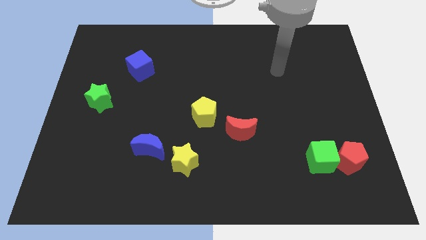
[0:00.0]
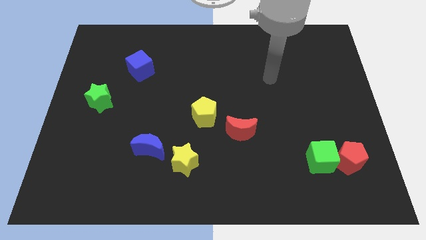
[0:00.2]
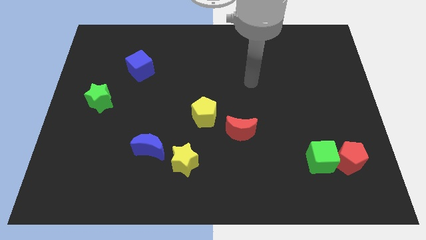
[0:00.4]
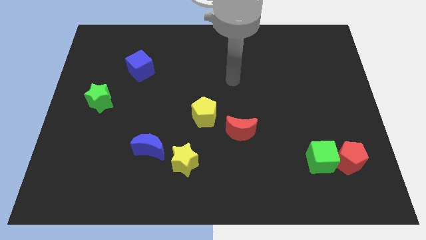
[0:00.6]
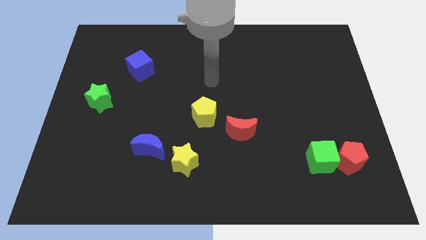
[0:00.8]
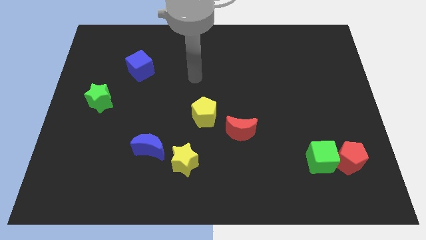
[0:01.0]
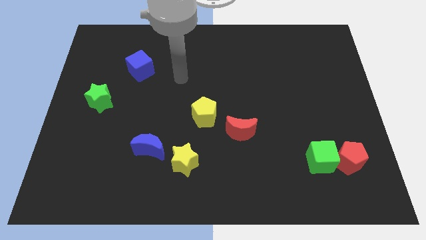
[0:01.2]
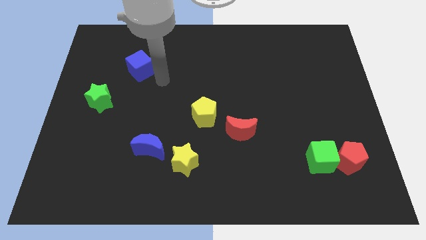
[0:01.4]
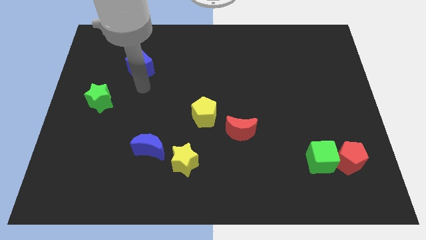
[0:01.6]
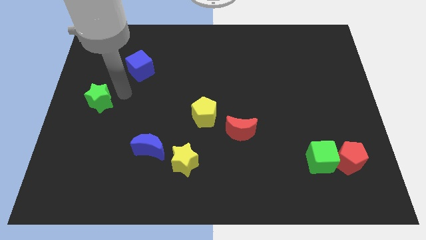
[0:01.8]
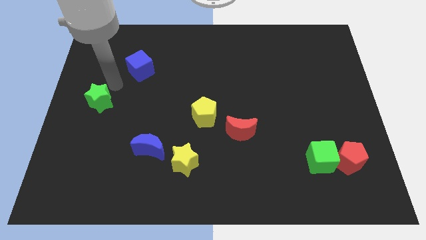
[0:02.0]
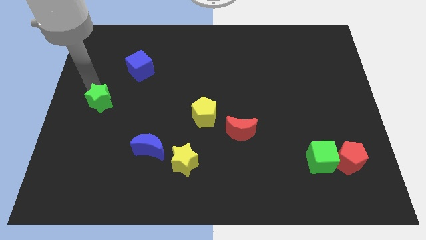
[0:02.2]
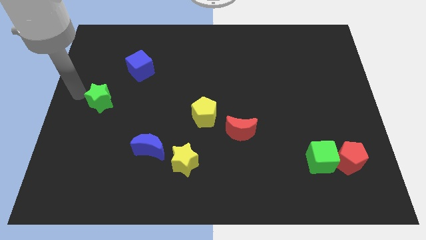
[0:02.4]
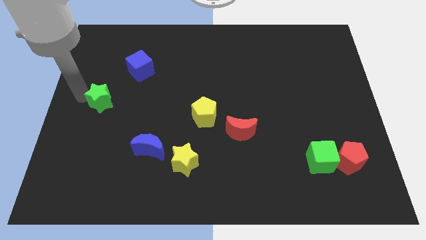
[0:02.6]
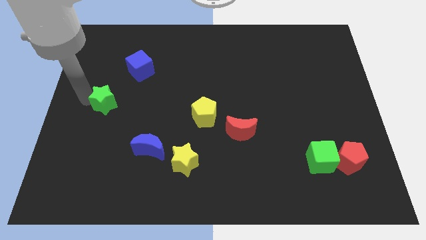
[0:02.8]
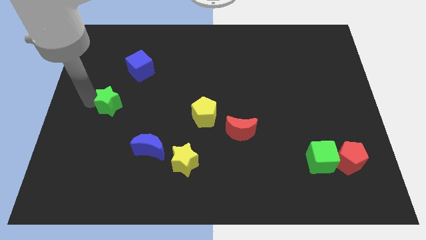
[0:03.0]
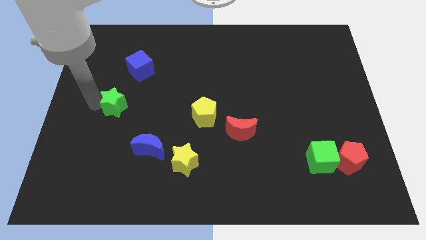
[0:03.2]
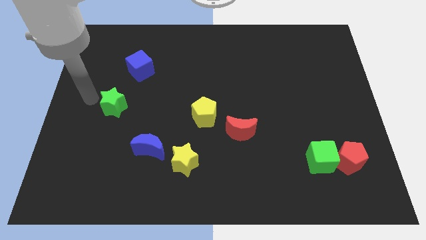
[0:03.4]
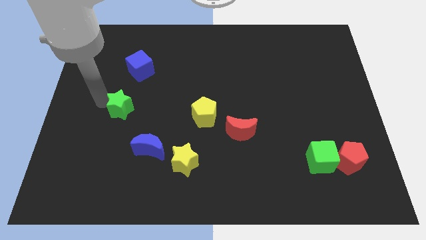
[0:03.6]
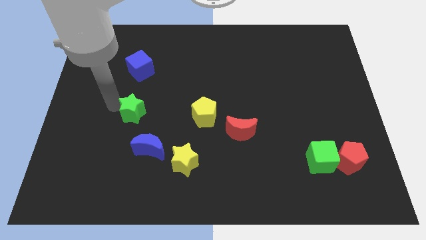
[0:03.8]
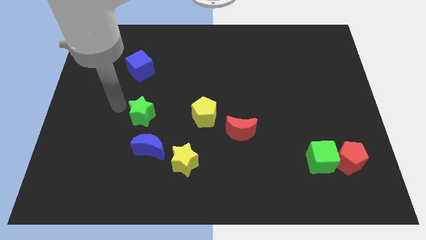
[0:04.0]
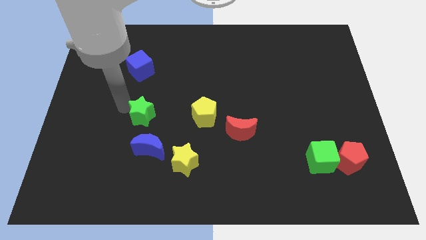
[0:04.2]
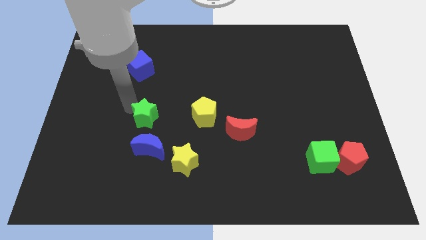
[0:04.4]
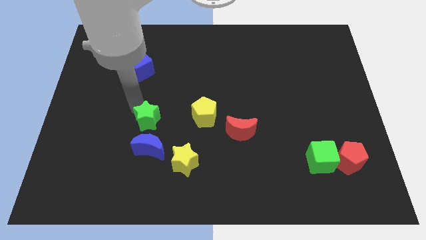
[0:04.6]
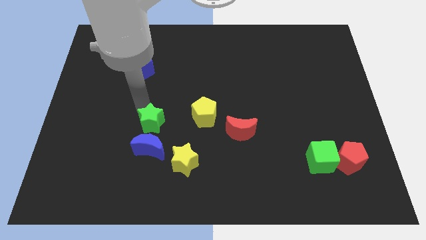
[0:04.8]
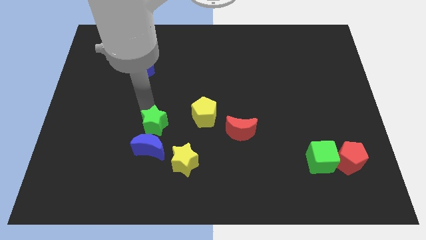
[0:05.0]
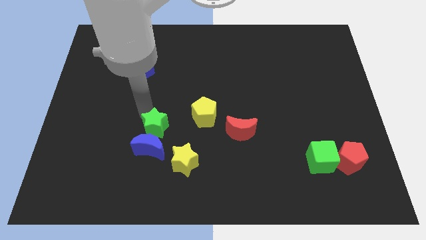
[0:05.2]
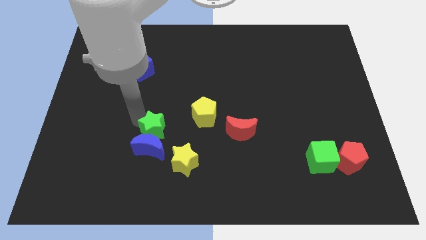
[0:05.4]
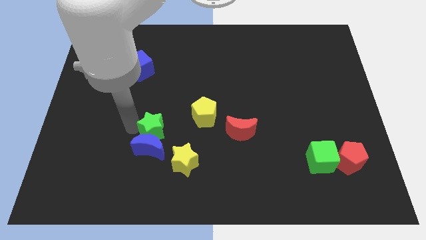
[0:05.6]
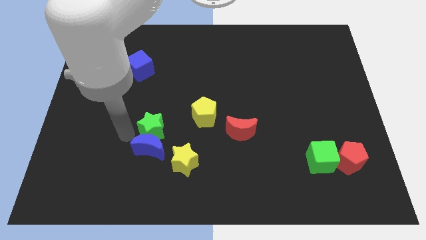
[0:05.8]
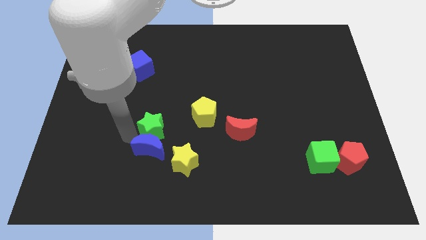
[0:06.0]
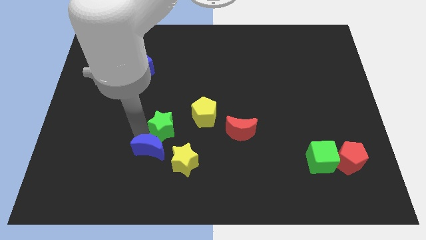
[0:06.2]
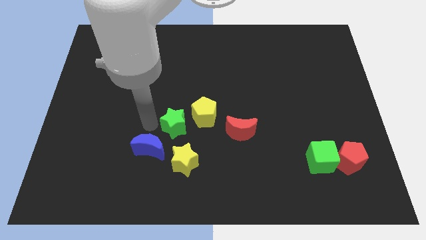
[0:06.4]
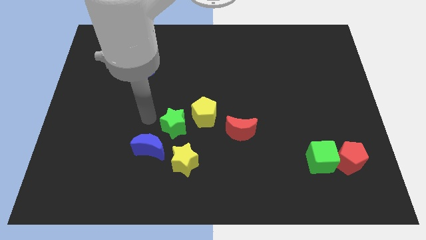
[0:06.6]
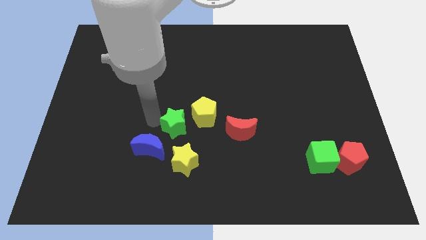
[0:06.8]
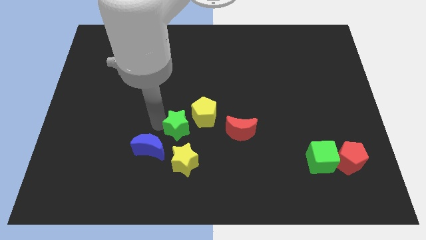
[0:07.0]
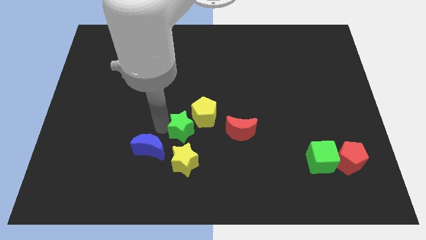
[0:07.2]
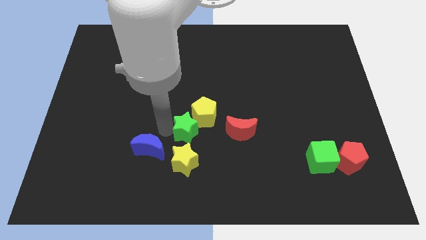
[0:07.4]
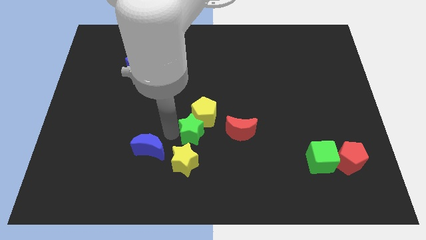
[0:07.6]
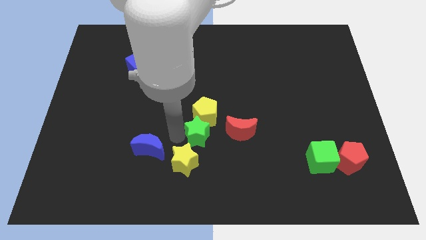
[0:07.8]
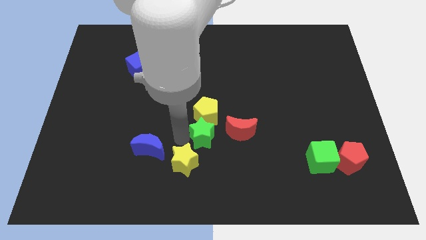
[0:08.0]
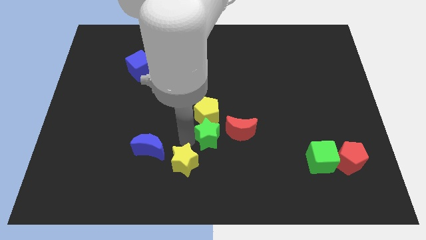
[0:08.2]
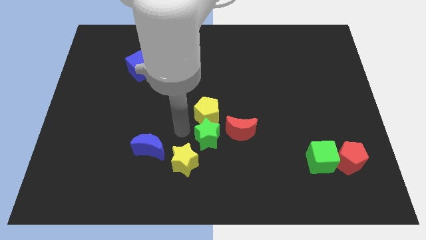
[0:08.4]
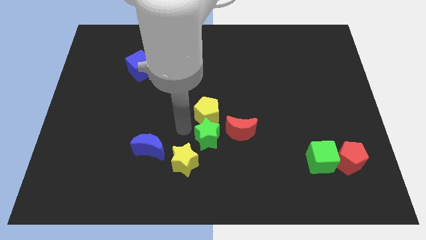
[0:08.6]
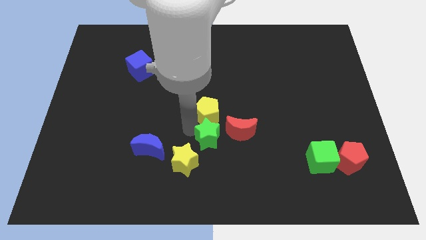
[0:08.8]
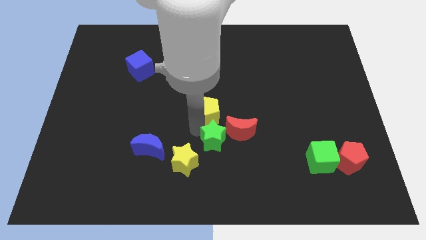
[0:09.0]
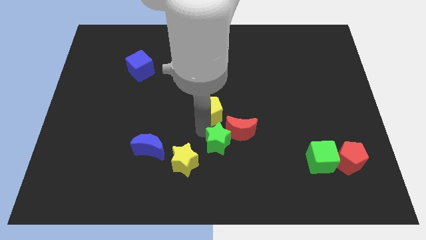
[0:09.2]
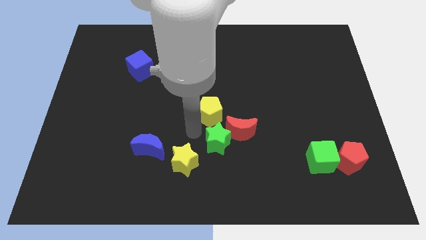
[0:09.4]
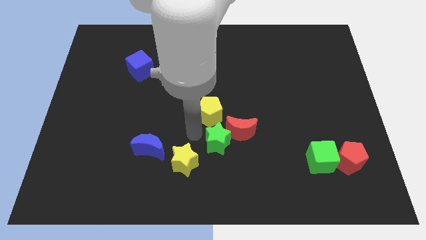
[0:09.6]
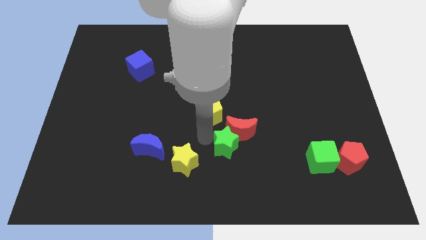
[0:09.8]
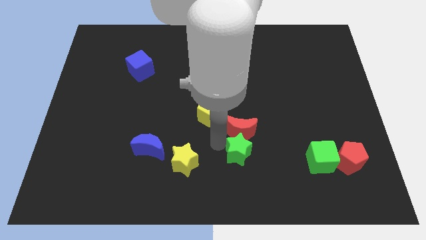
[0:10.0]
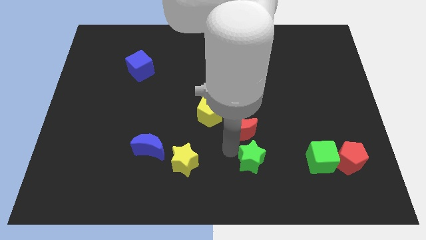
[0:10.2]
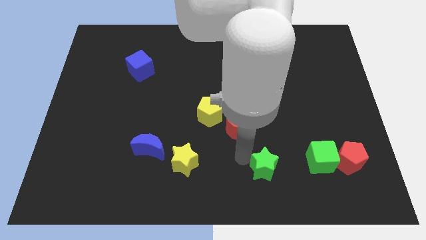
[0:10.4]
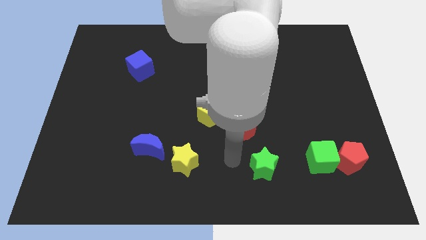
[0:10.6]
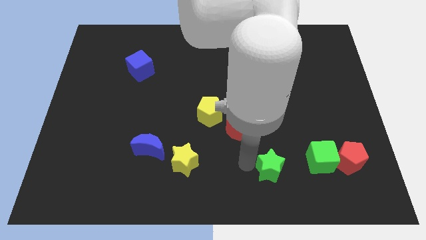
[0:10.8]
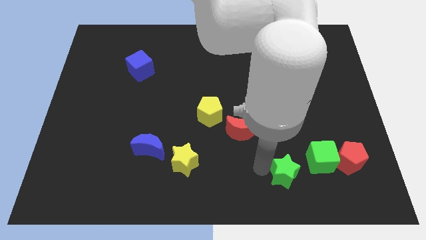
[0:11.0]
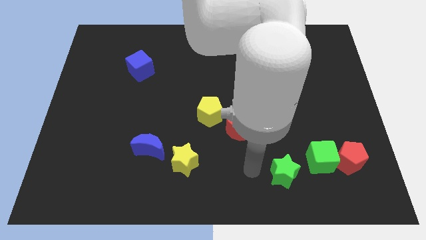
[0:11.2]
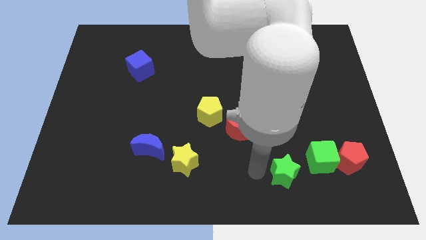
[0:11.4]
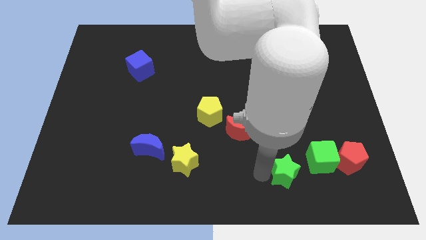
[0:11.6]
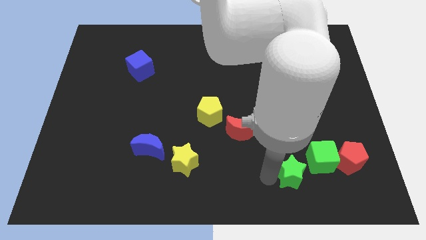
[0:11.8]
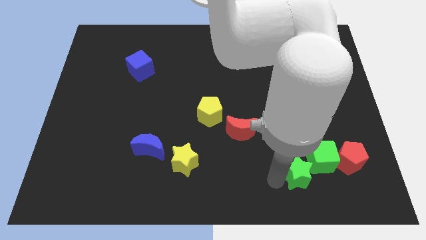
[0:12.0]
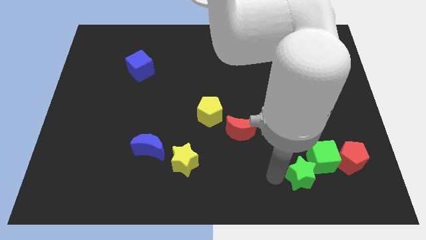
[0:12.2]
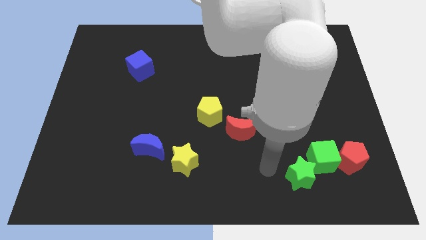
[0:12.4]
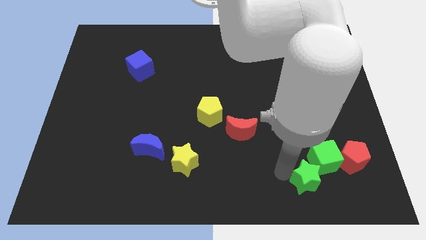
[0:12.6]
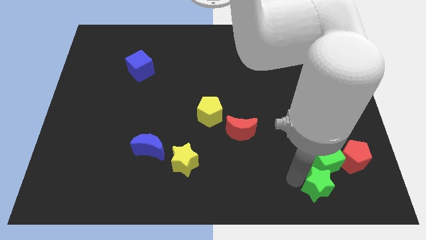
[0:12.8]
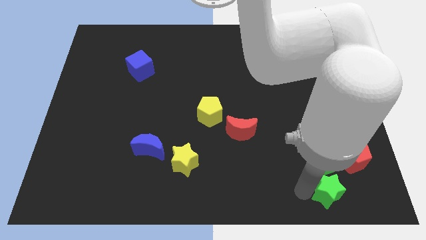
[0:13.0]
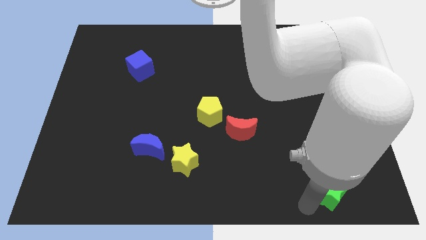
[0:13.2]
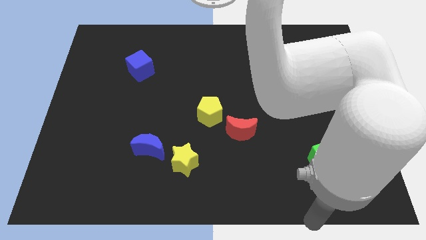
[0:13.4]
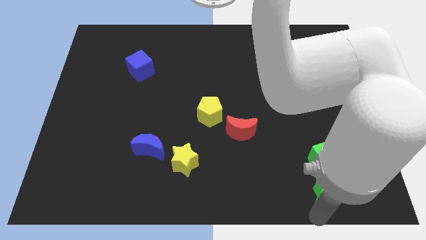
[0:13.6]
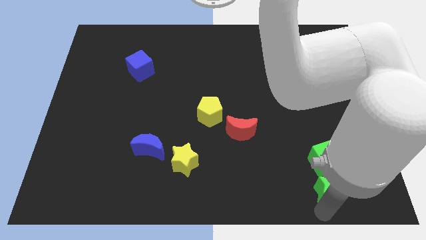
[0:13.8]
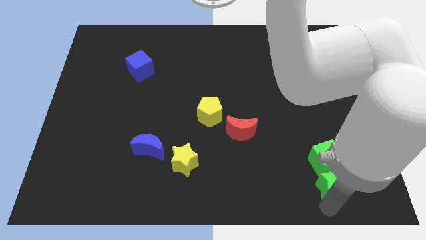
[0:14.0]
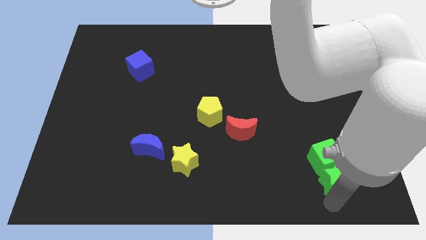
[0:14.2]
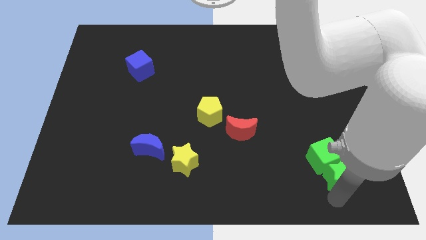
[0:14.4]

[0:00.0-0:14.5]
slide the green star next to the red pentagon
